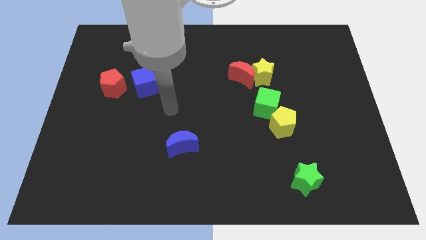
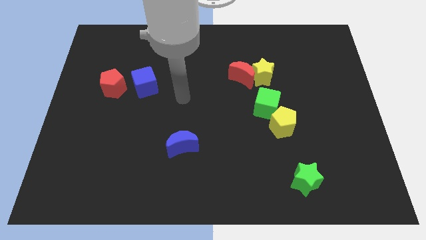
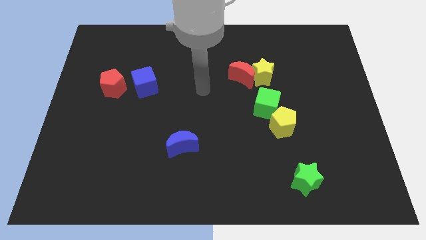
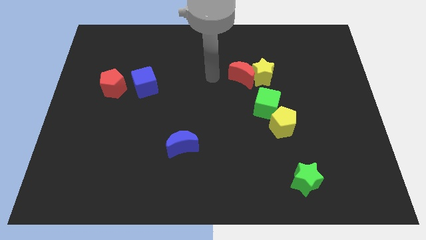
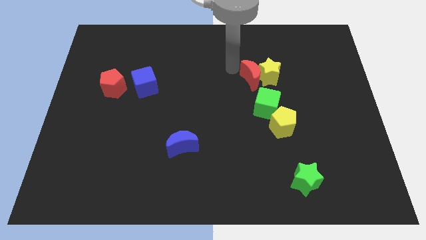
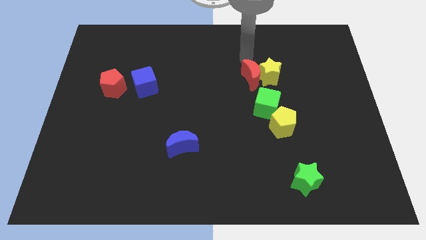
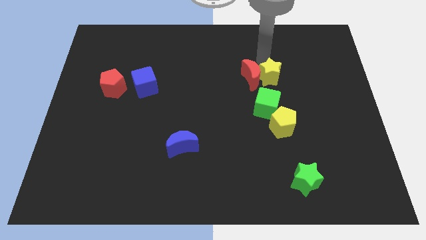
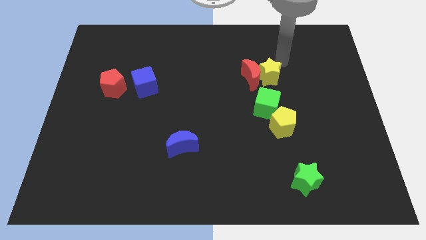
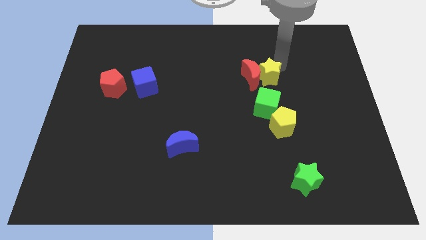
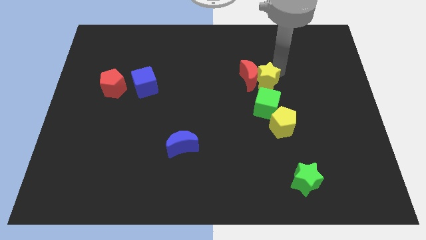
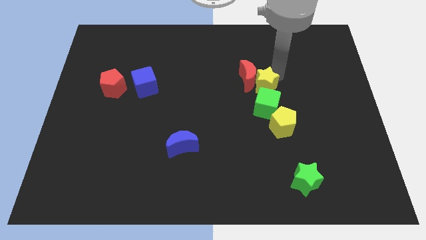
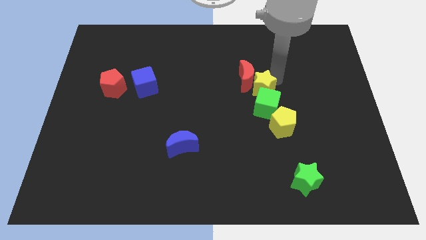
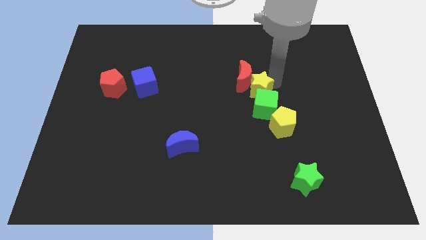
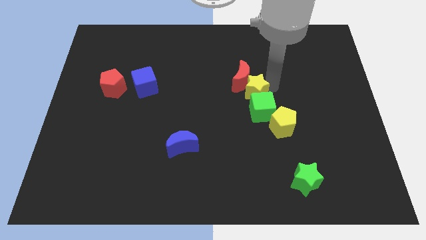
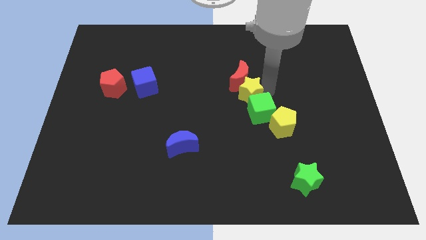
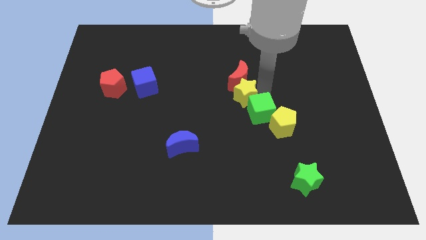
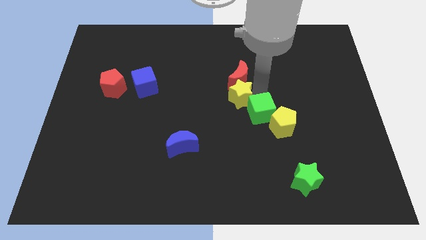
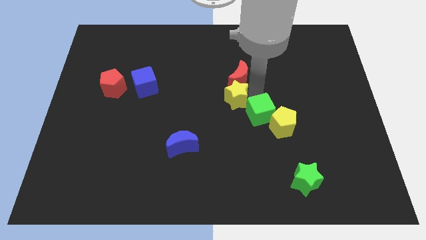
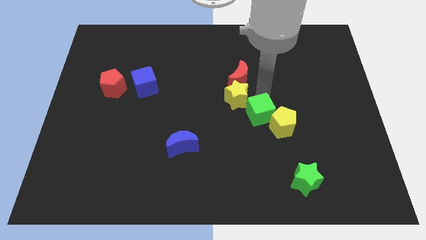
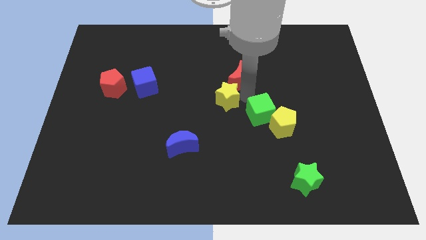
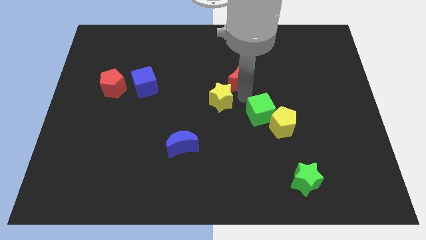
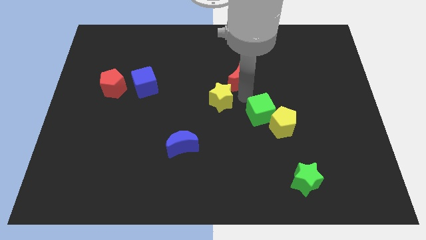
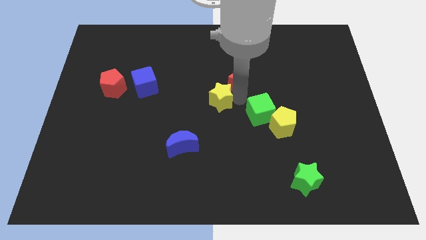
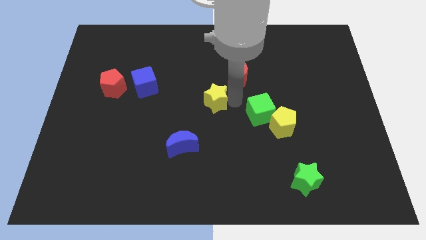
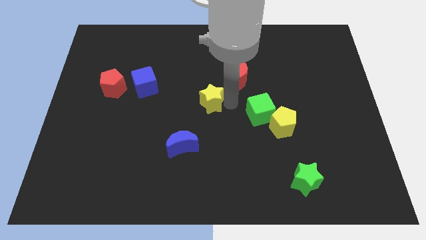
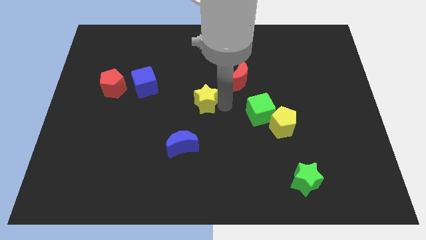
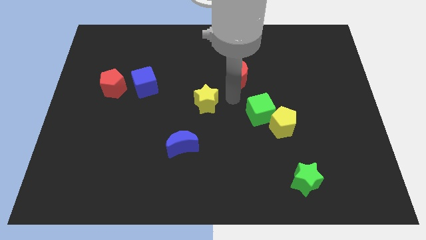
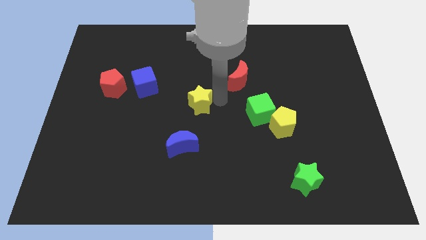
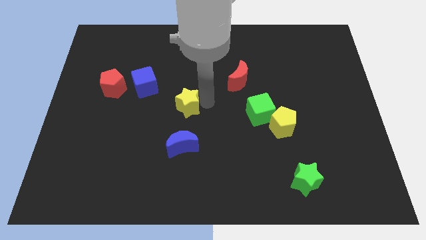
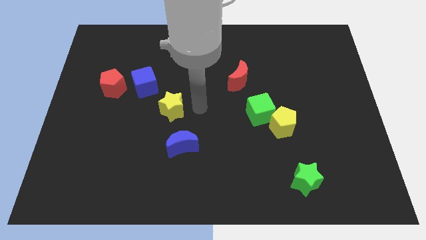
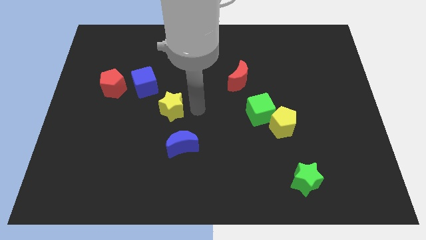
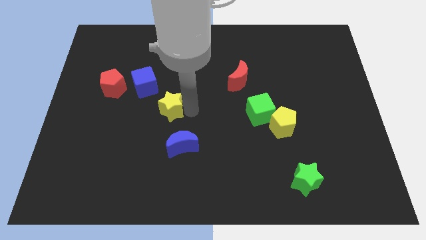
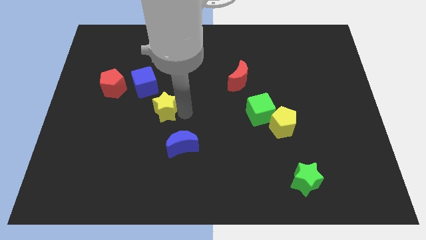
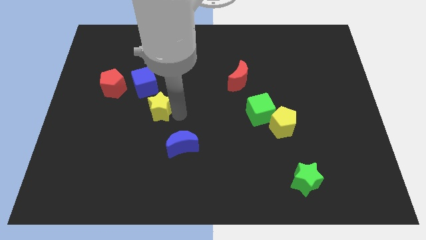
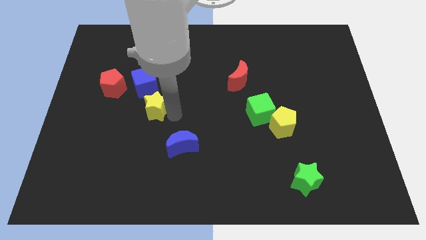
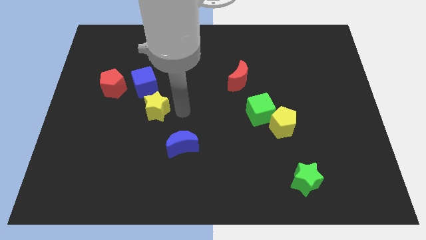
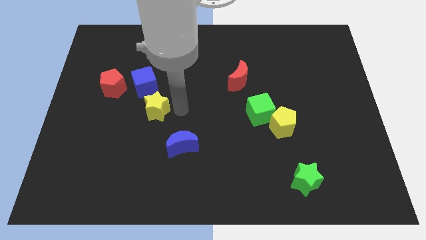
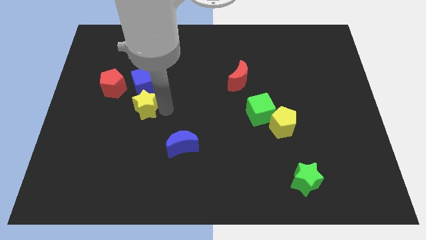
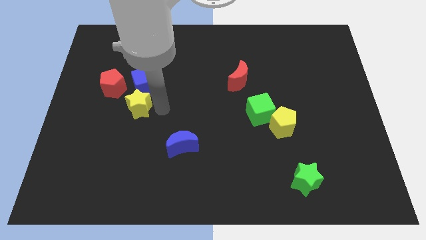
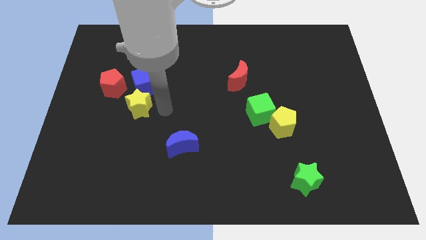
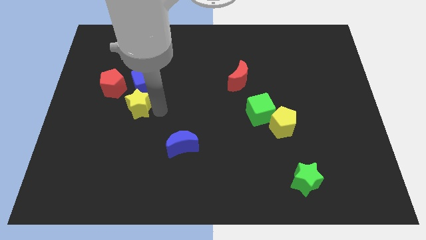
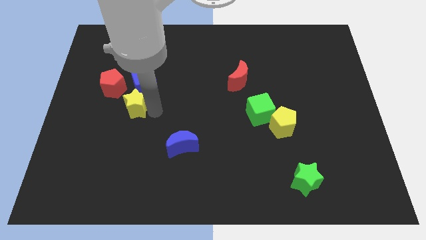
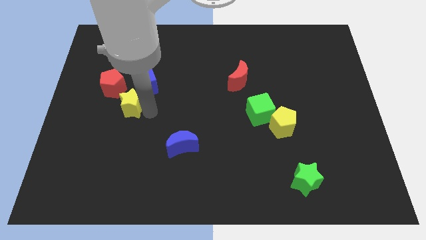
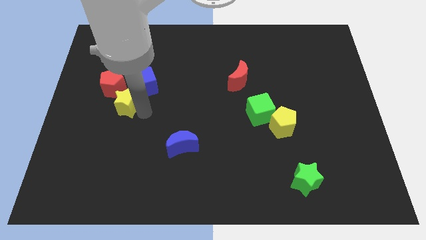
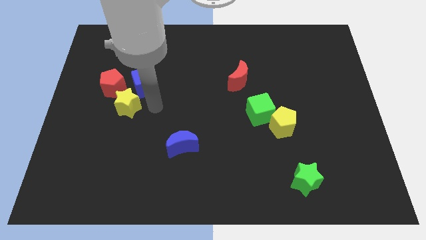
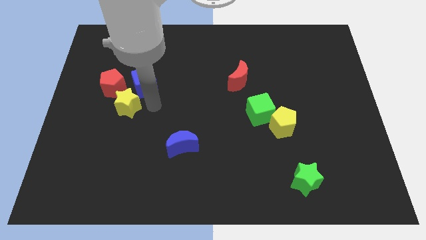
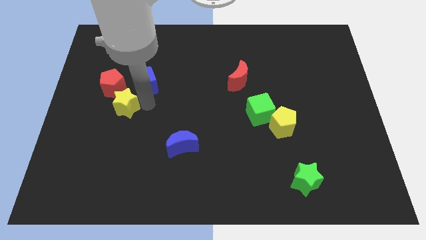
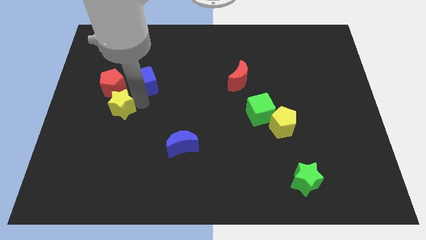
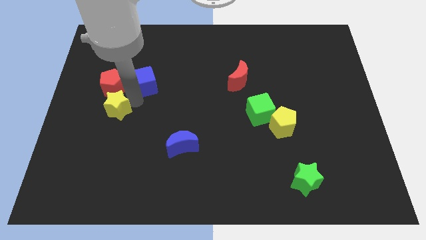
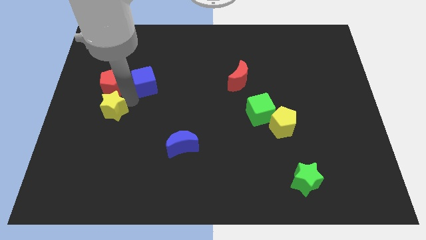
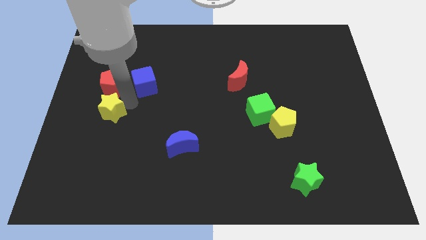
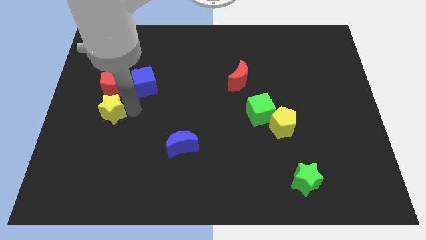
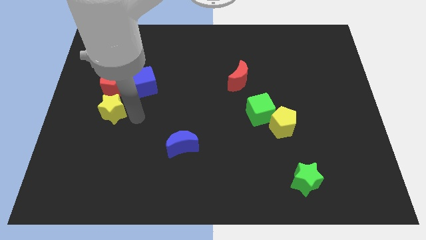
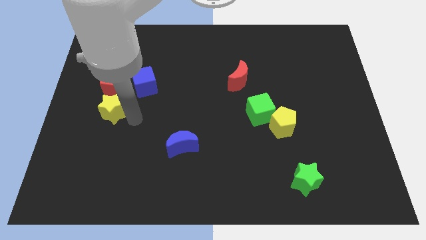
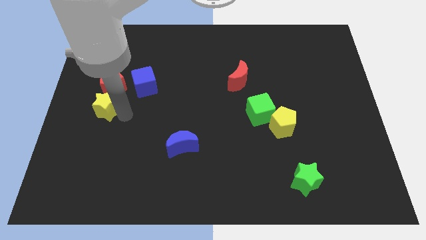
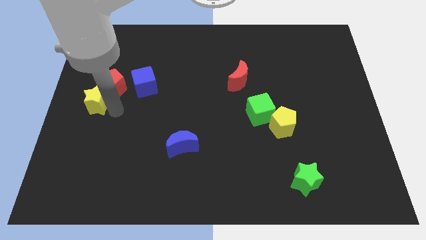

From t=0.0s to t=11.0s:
put the yellow star to the left side of the board
